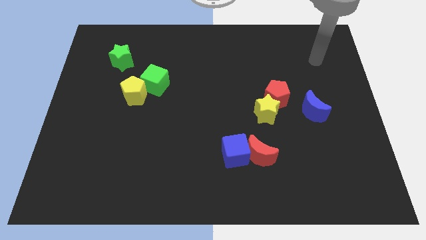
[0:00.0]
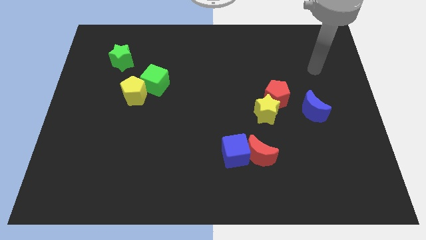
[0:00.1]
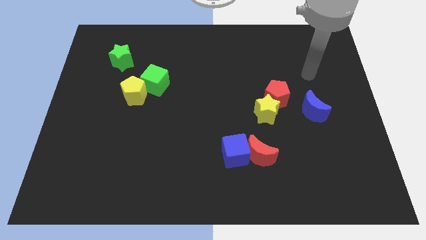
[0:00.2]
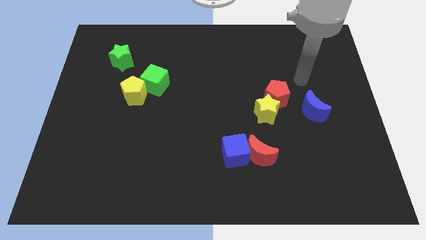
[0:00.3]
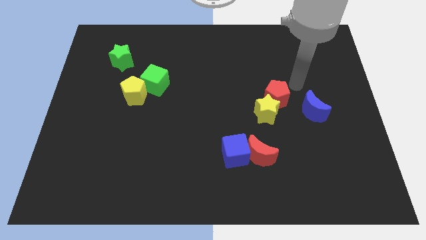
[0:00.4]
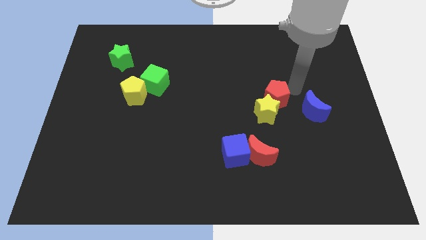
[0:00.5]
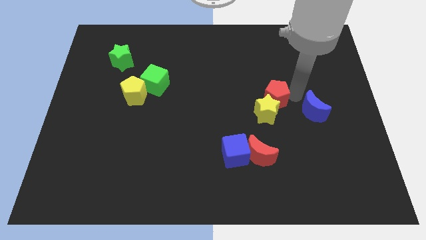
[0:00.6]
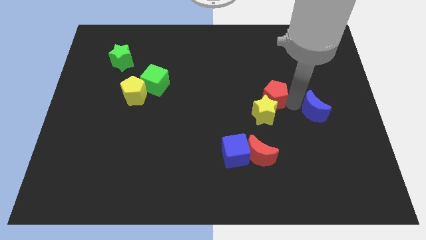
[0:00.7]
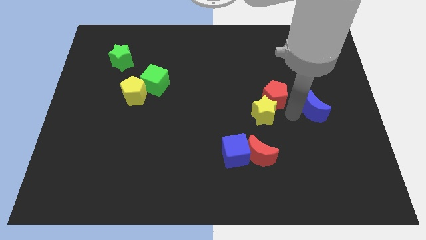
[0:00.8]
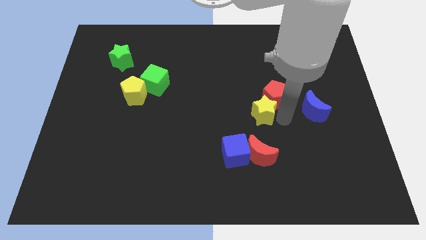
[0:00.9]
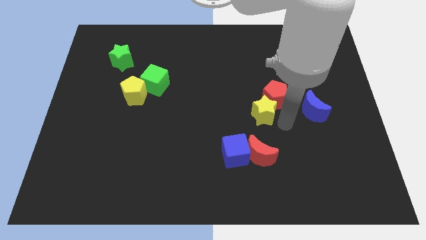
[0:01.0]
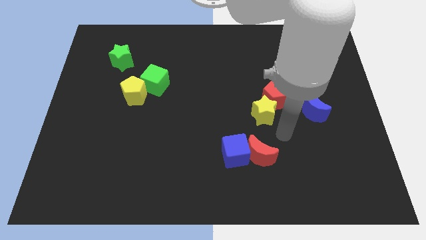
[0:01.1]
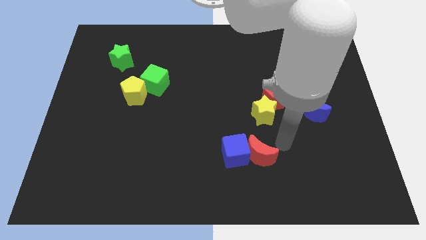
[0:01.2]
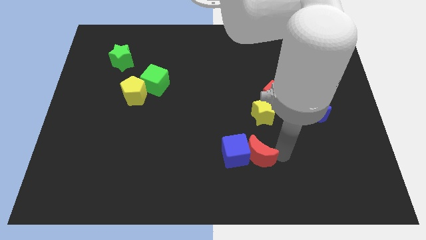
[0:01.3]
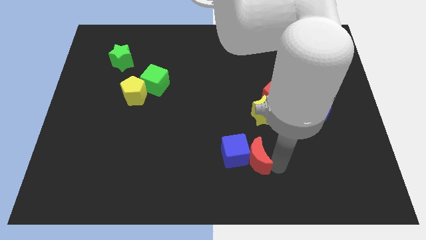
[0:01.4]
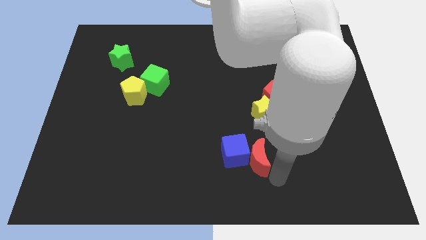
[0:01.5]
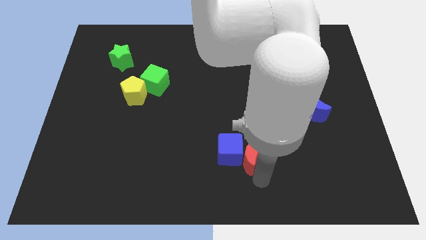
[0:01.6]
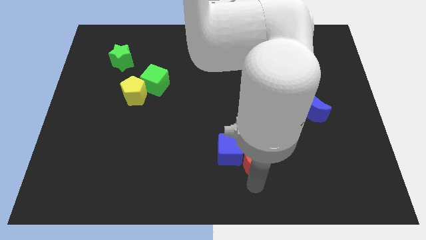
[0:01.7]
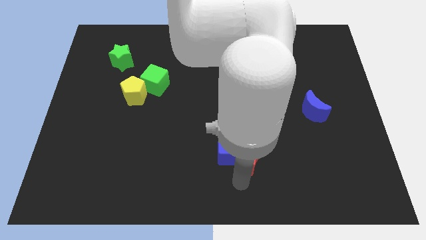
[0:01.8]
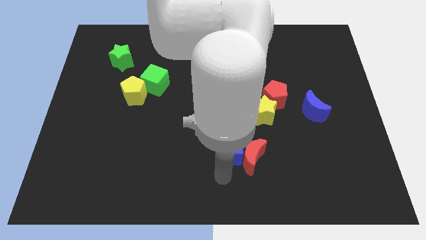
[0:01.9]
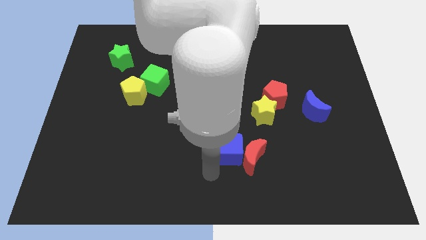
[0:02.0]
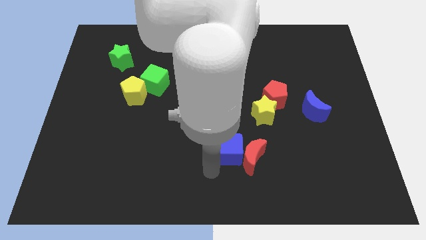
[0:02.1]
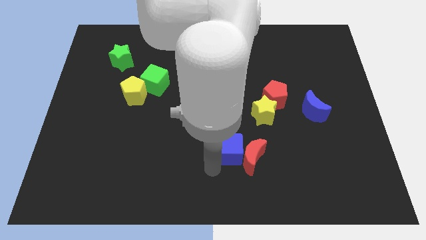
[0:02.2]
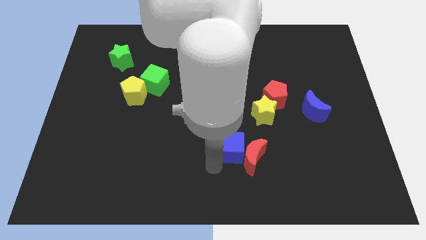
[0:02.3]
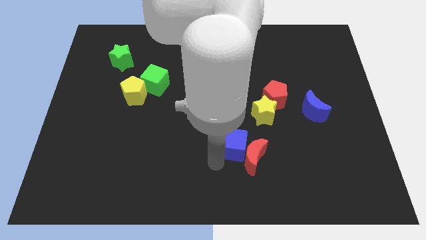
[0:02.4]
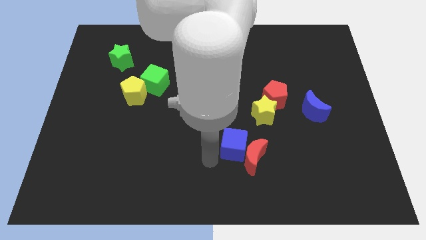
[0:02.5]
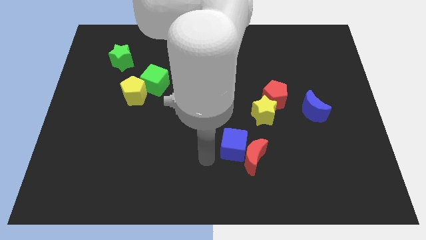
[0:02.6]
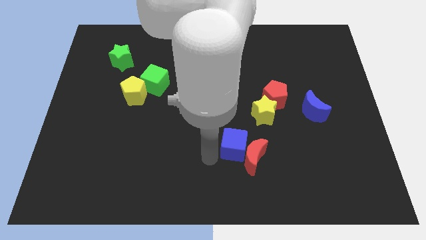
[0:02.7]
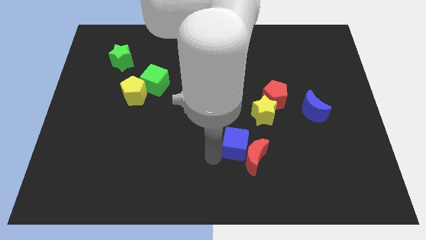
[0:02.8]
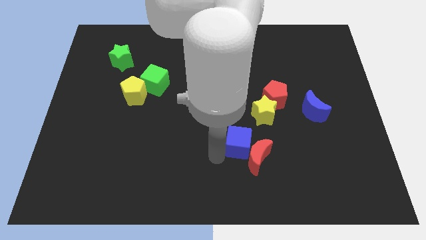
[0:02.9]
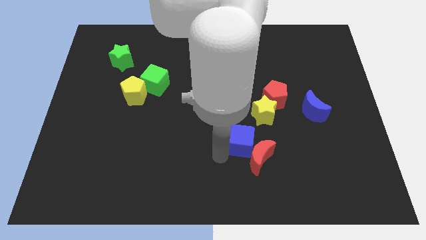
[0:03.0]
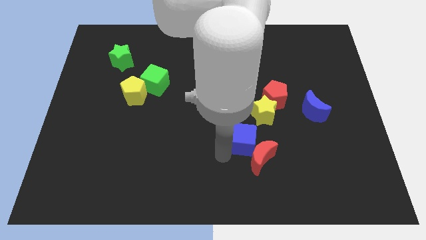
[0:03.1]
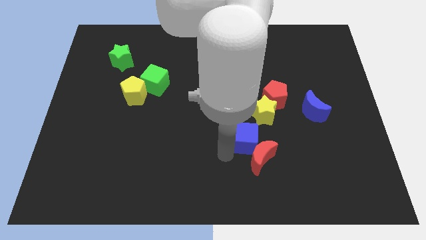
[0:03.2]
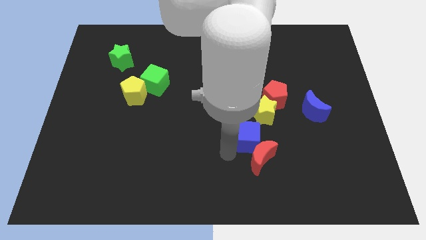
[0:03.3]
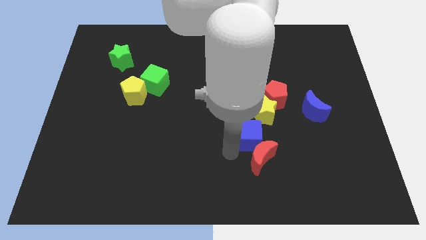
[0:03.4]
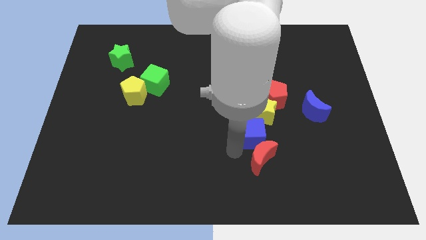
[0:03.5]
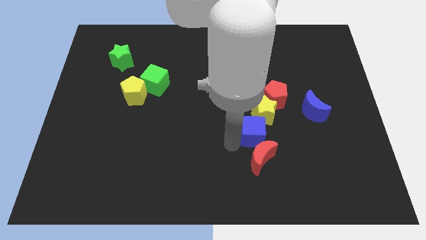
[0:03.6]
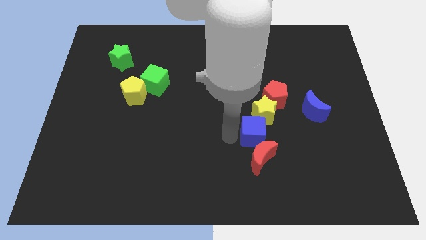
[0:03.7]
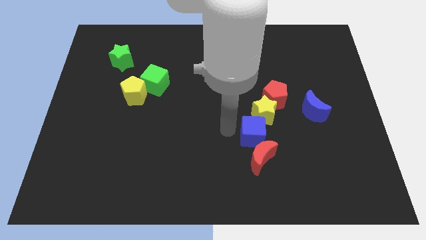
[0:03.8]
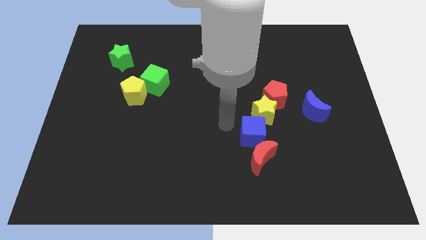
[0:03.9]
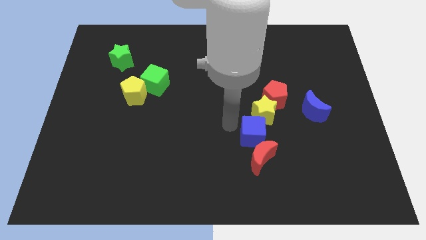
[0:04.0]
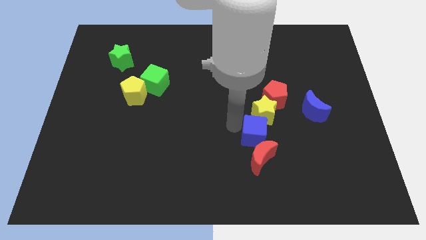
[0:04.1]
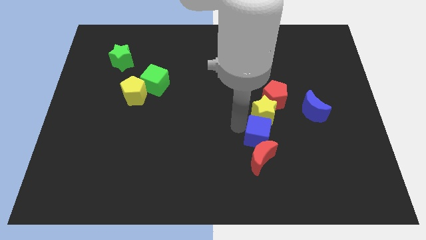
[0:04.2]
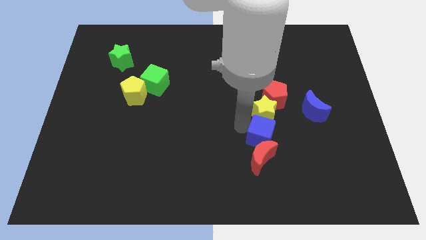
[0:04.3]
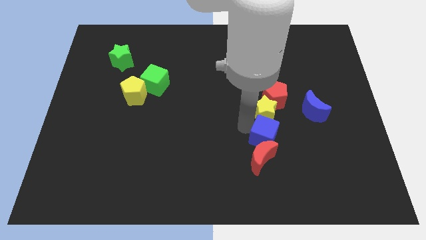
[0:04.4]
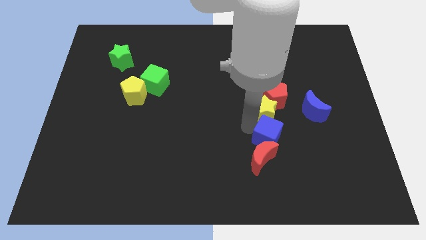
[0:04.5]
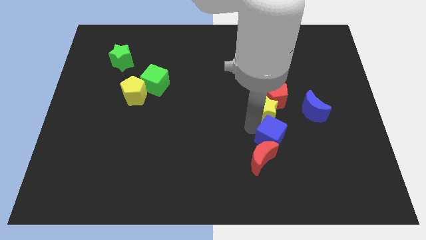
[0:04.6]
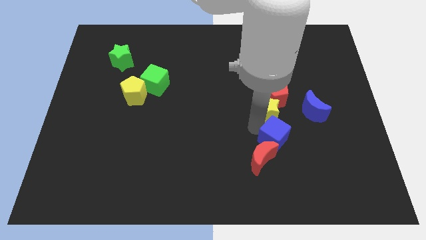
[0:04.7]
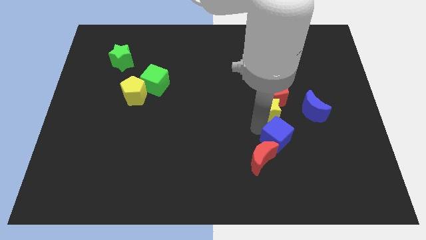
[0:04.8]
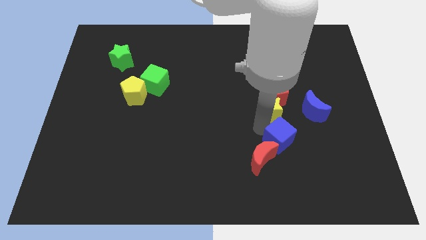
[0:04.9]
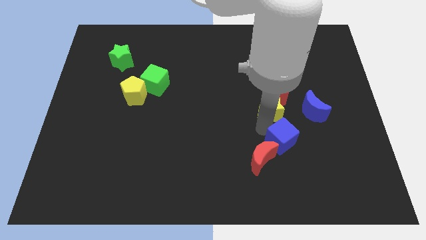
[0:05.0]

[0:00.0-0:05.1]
slide the blue cube just right of the red moon

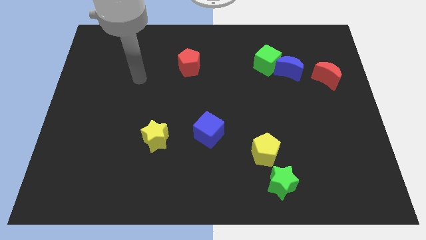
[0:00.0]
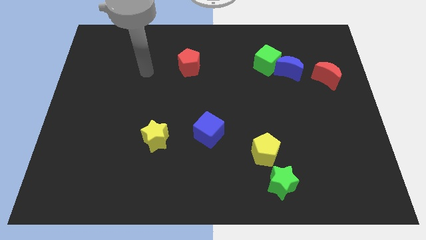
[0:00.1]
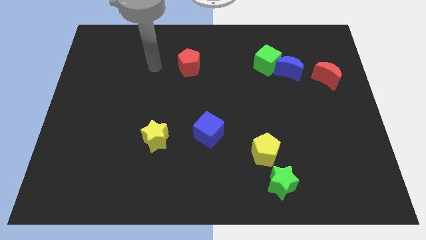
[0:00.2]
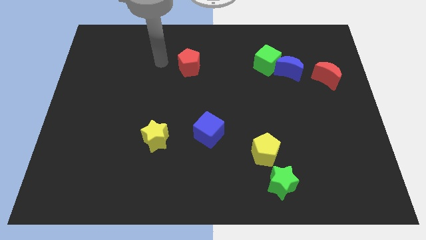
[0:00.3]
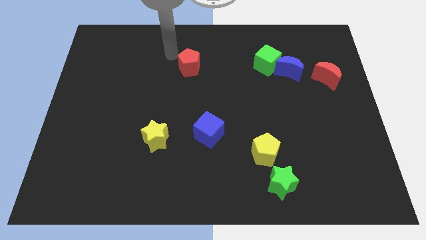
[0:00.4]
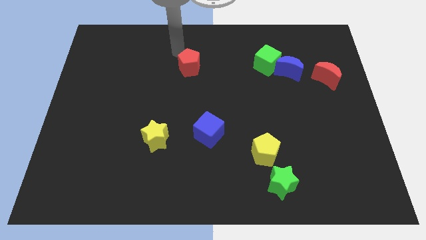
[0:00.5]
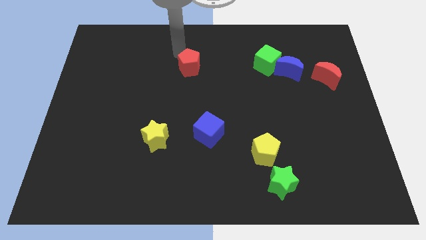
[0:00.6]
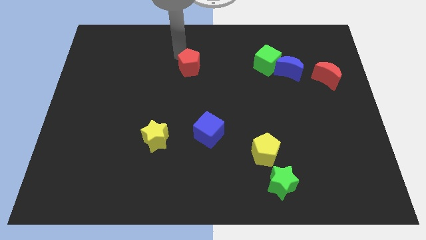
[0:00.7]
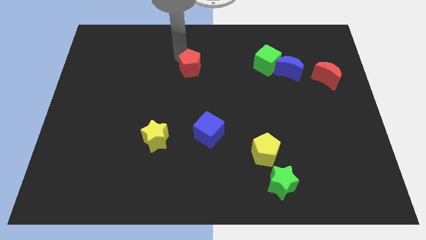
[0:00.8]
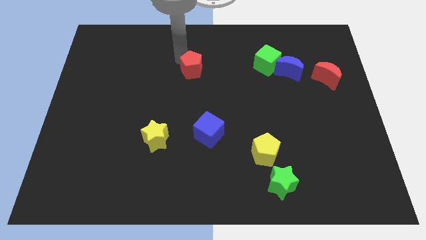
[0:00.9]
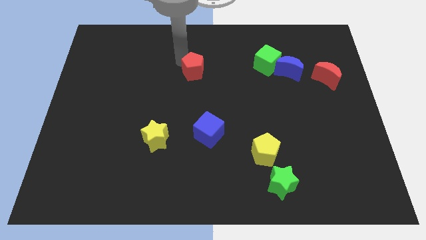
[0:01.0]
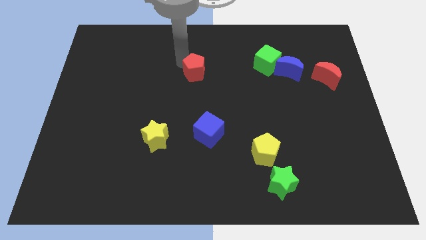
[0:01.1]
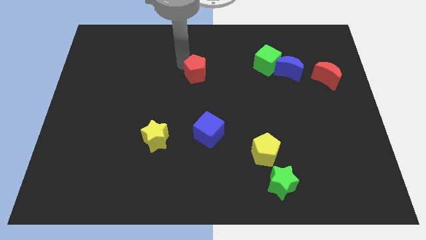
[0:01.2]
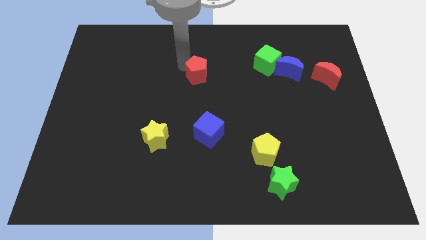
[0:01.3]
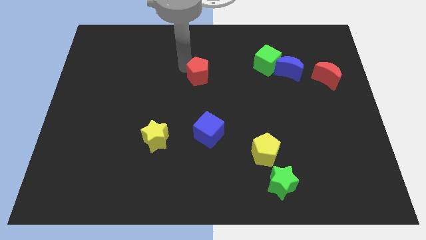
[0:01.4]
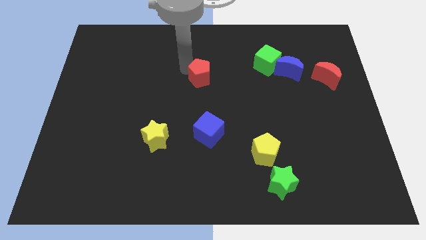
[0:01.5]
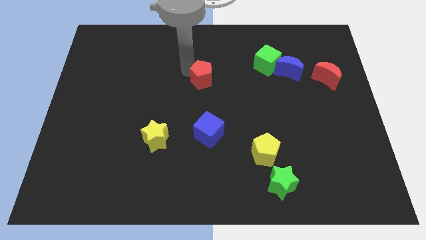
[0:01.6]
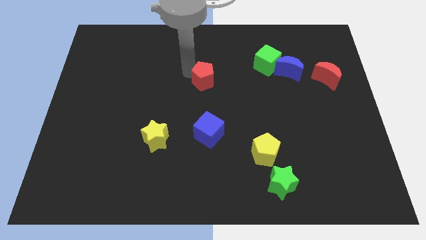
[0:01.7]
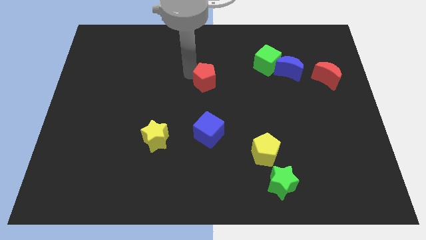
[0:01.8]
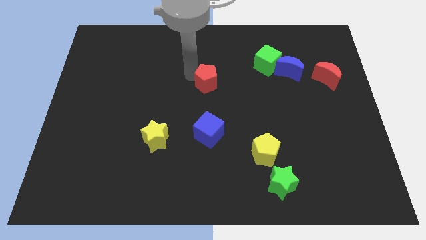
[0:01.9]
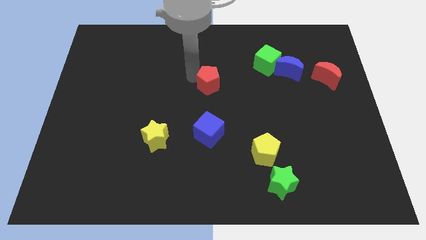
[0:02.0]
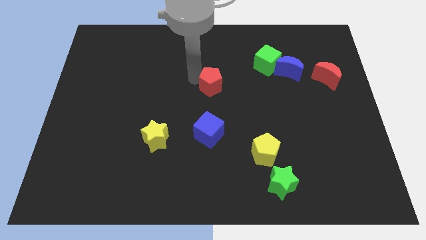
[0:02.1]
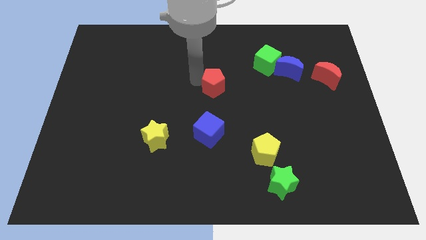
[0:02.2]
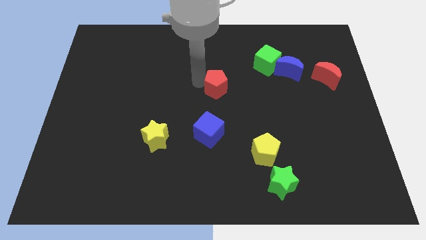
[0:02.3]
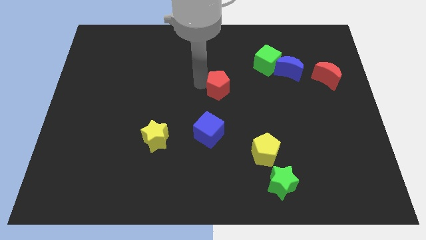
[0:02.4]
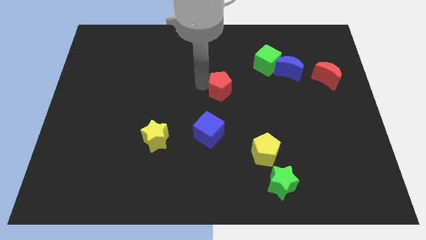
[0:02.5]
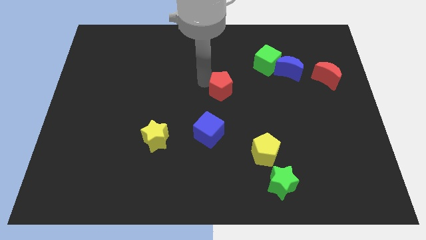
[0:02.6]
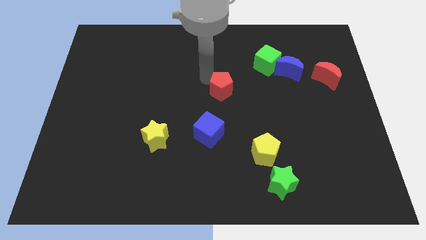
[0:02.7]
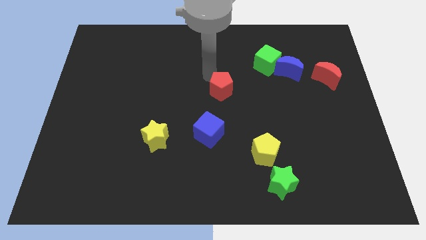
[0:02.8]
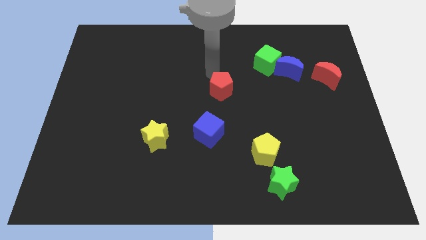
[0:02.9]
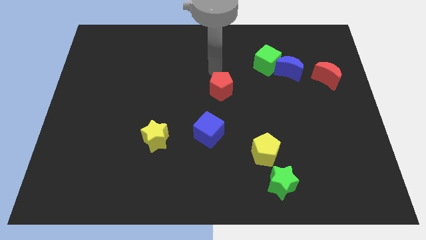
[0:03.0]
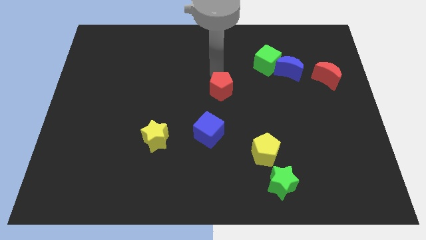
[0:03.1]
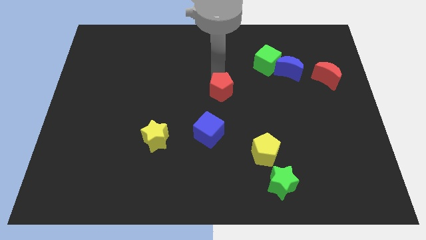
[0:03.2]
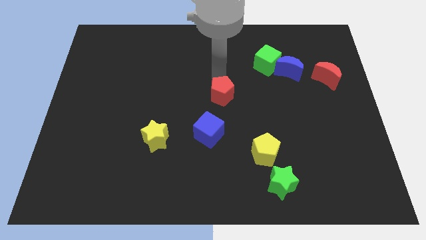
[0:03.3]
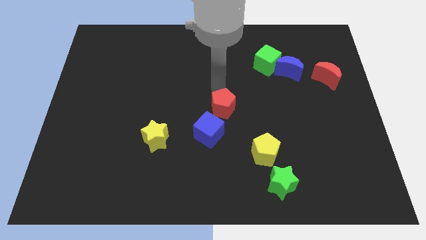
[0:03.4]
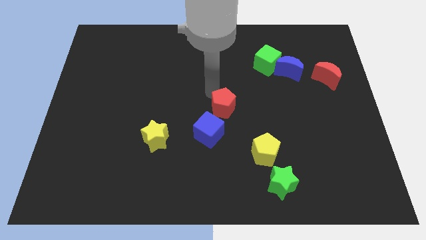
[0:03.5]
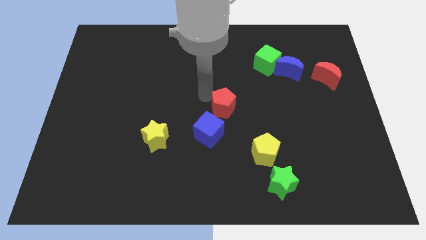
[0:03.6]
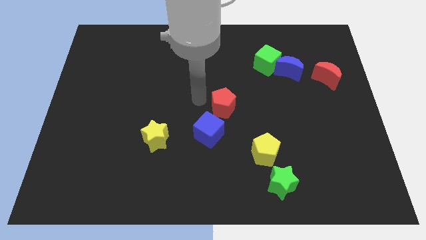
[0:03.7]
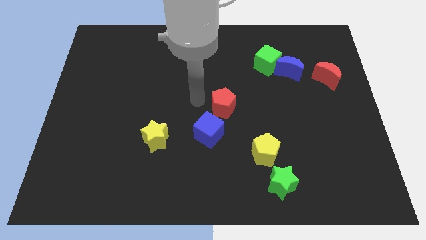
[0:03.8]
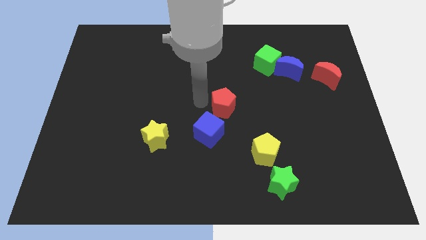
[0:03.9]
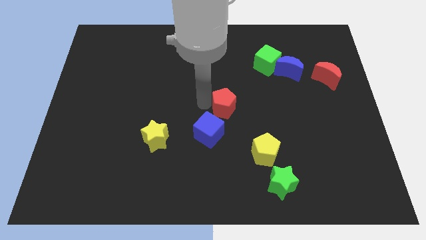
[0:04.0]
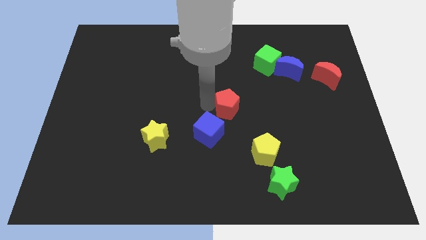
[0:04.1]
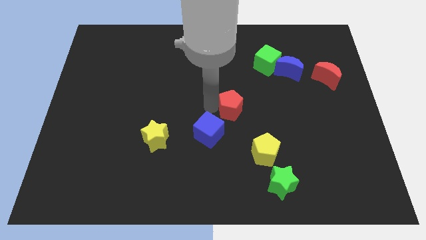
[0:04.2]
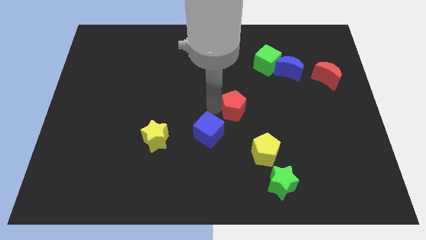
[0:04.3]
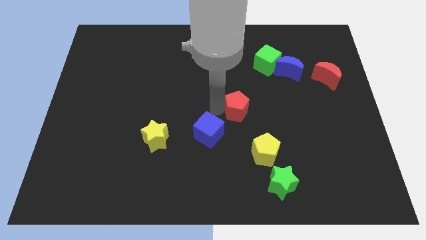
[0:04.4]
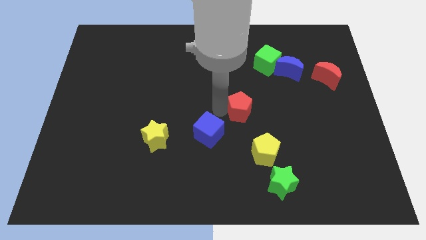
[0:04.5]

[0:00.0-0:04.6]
put the red pentagon to the top side of the yellow pentagon
